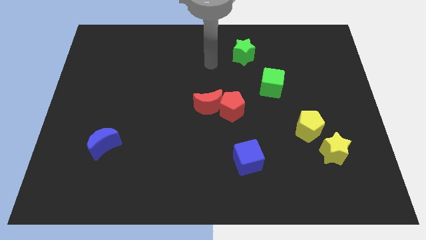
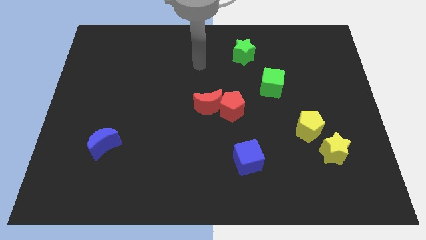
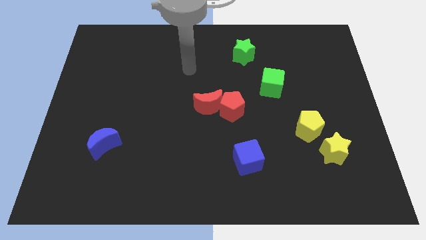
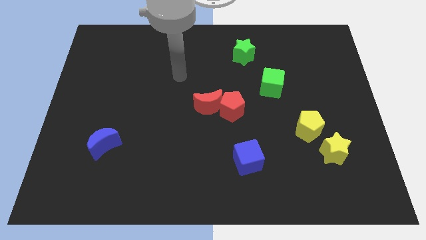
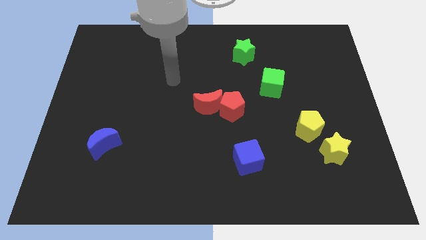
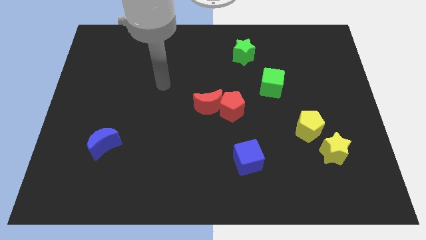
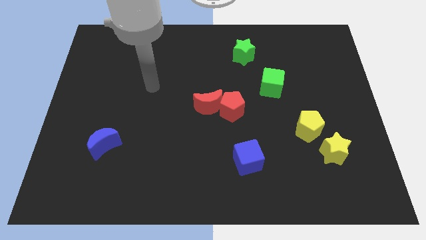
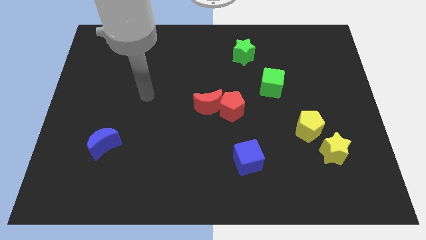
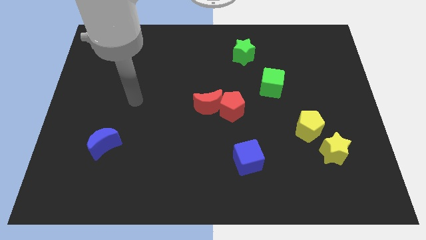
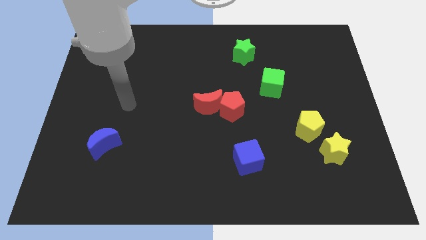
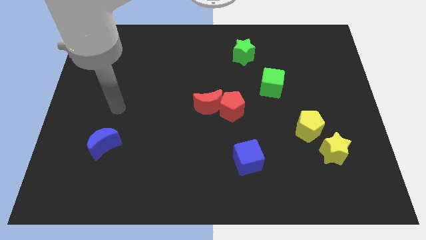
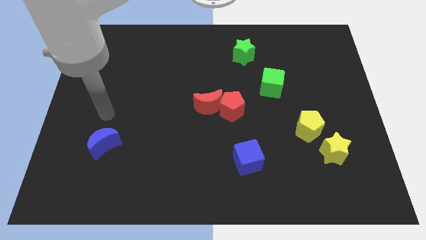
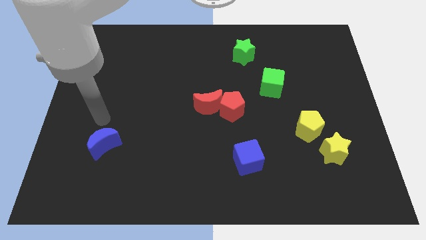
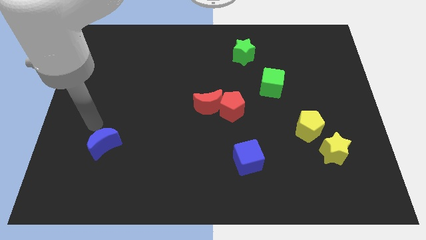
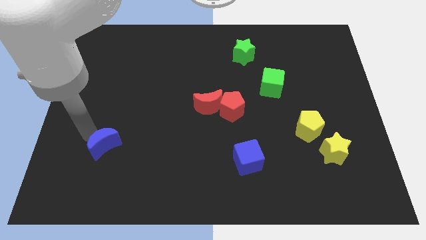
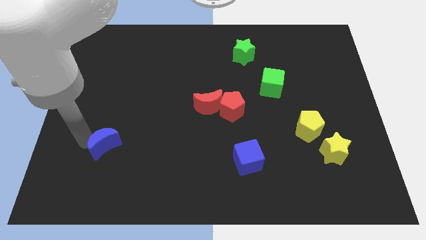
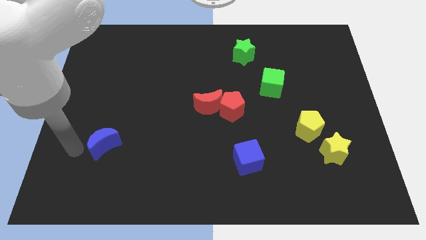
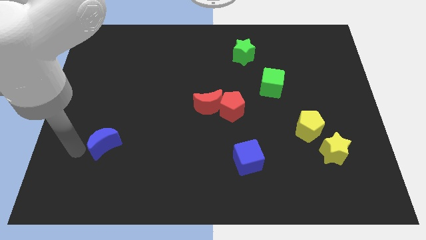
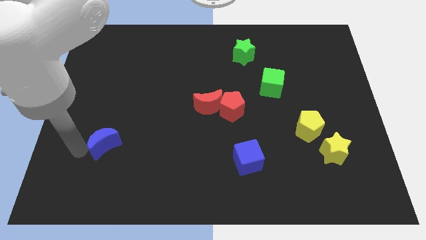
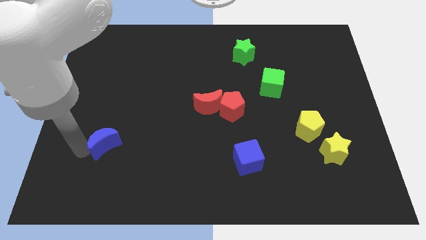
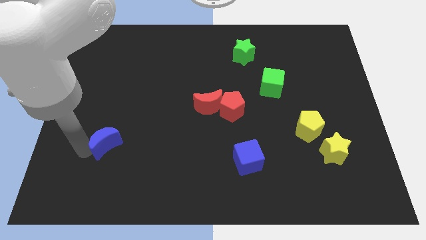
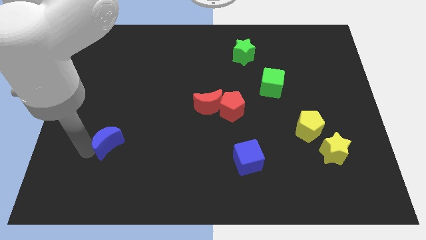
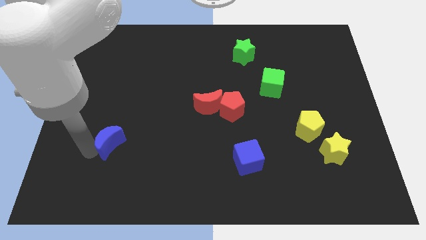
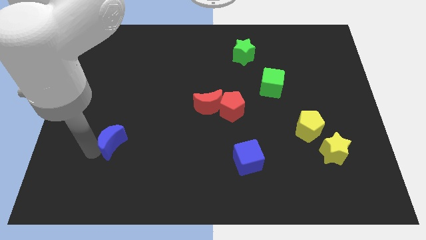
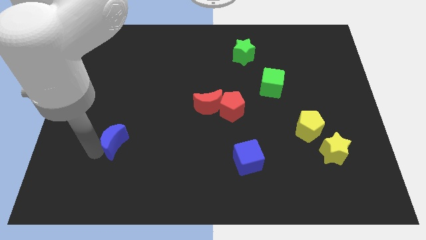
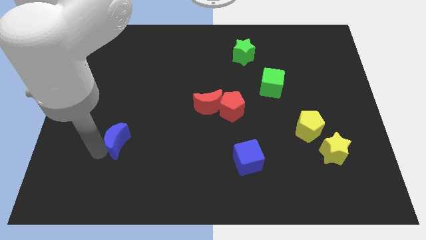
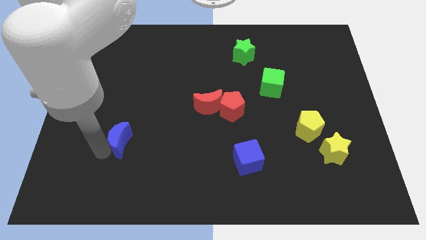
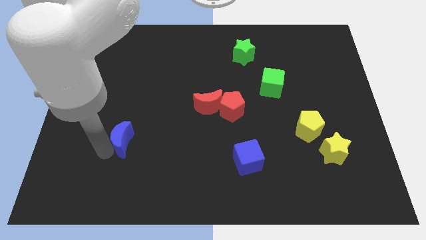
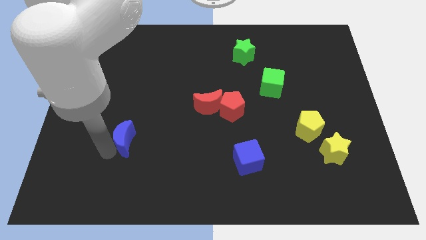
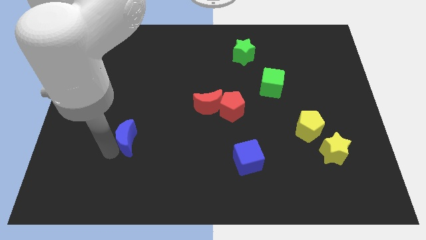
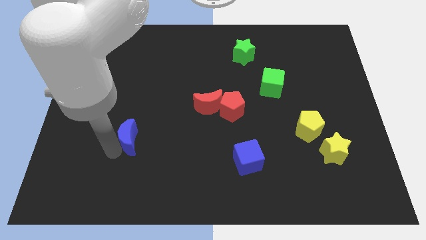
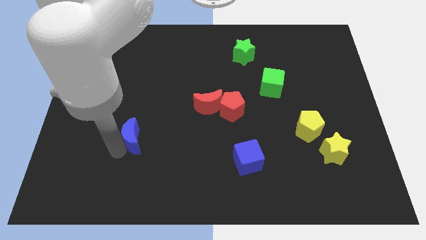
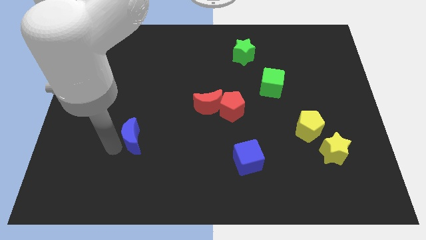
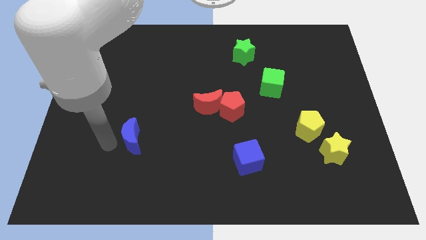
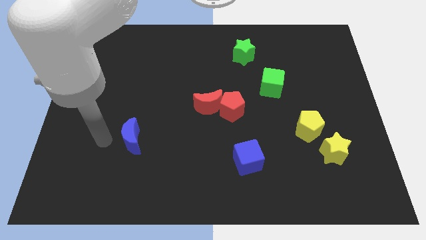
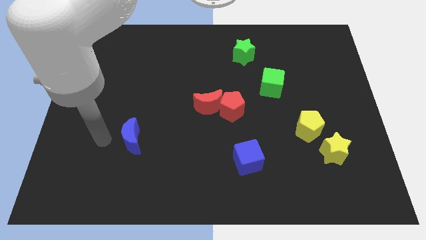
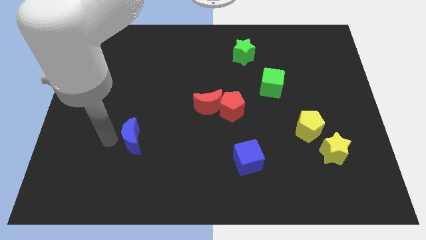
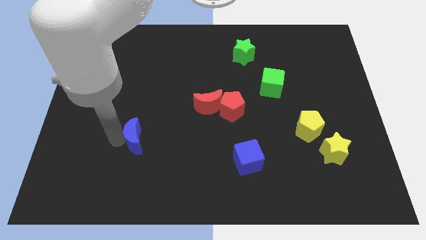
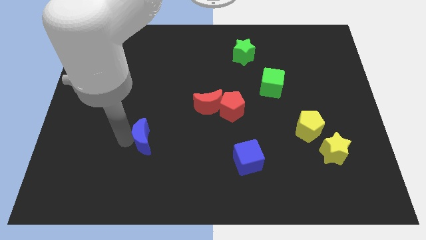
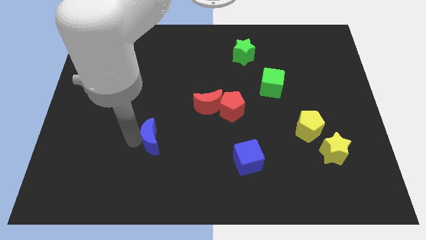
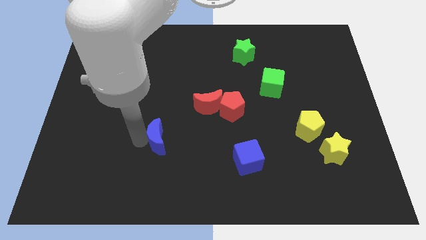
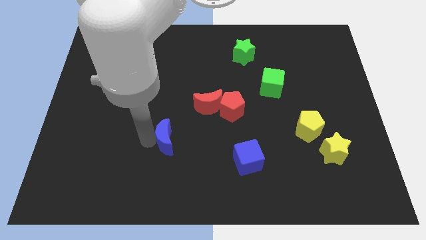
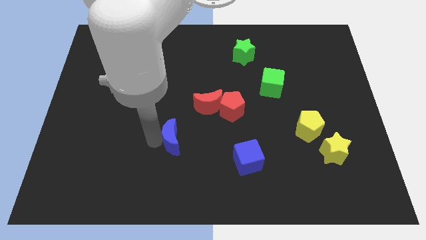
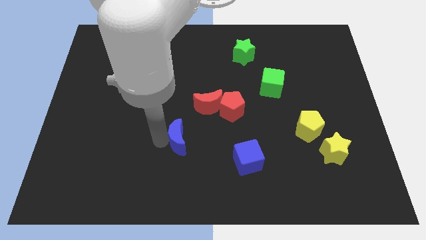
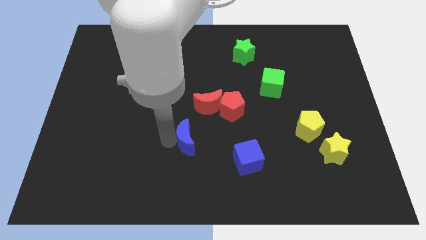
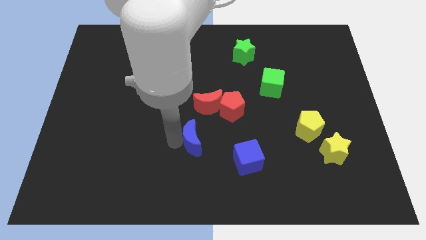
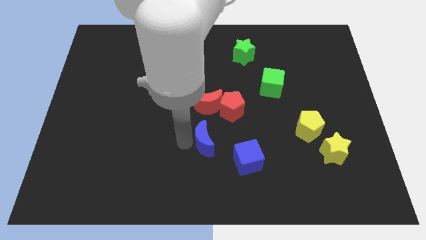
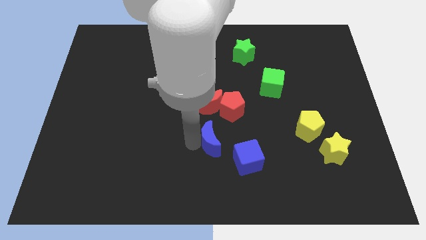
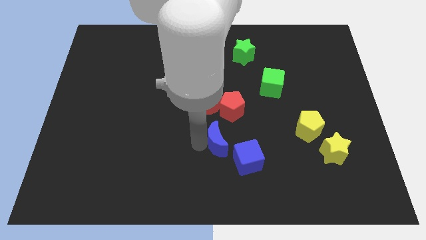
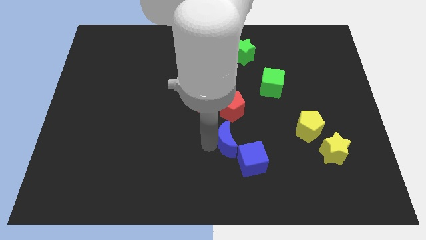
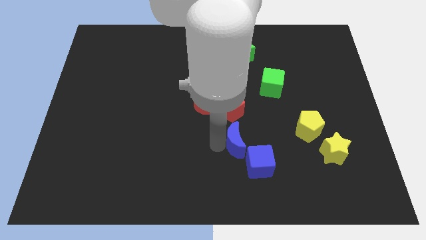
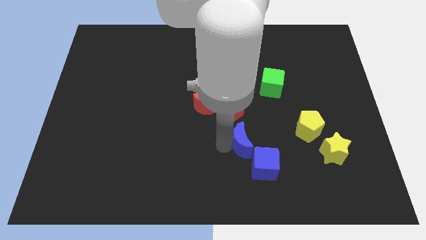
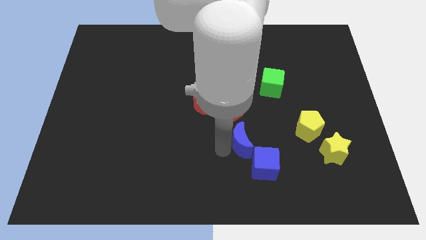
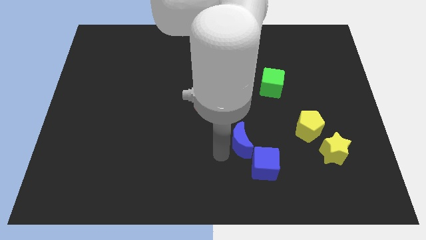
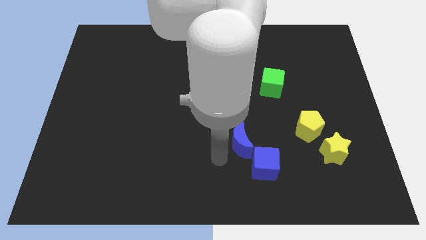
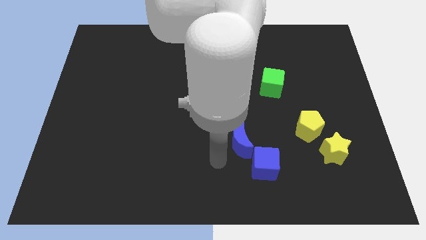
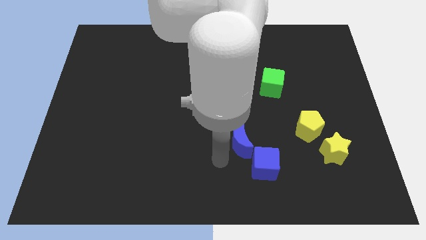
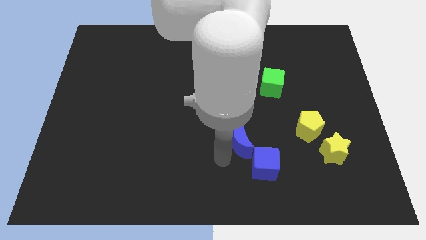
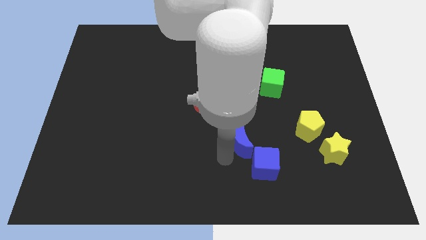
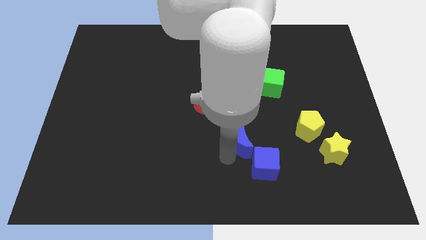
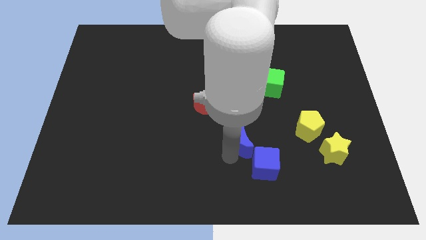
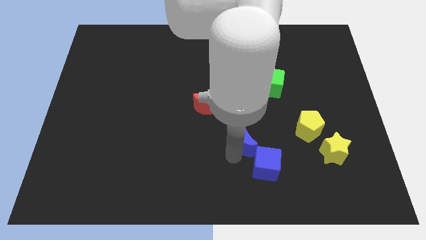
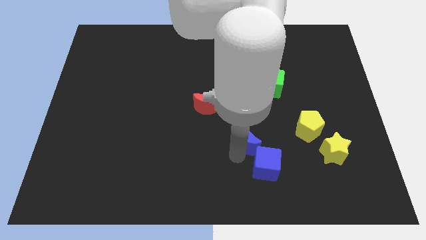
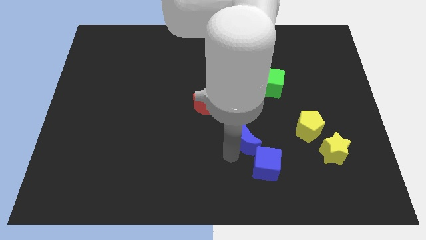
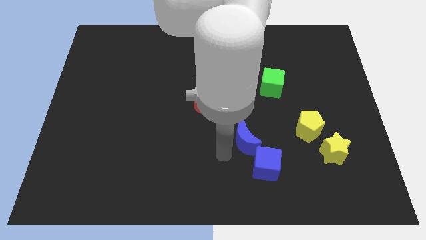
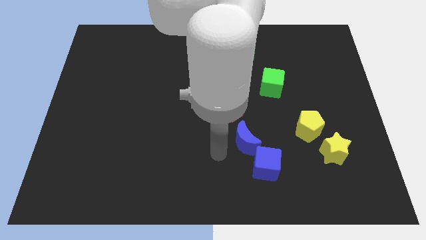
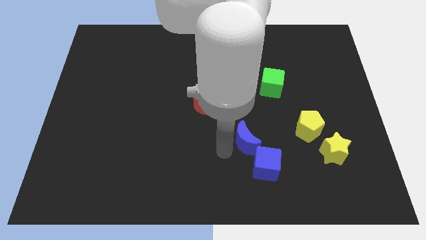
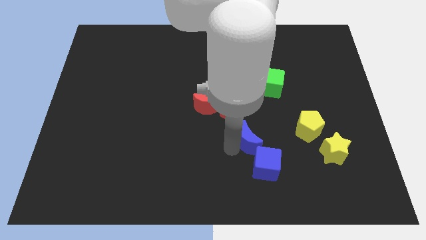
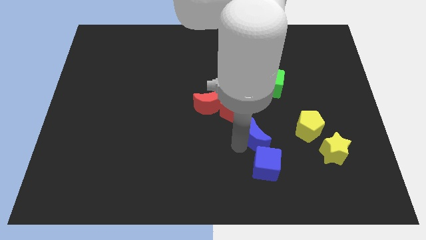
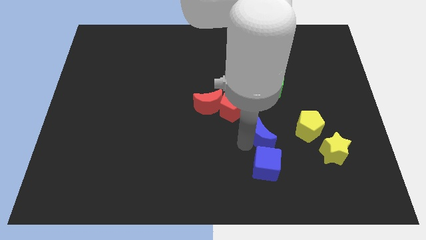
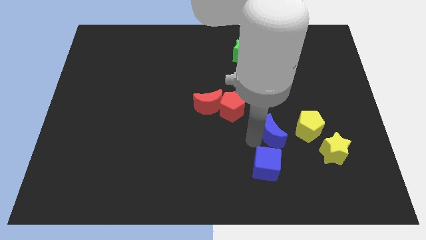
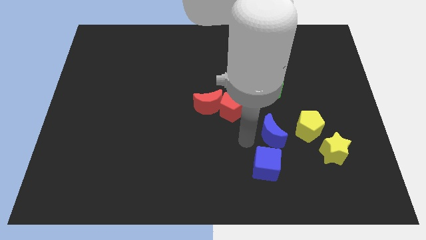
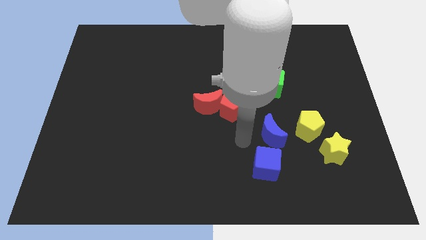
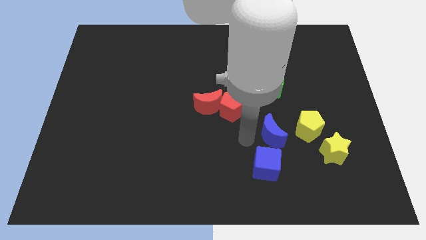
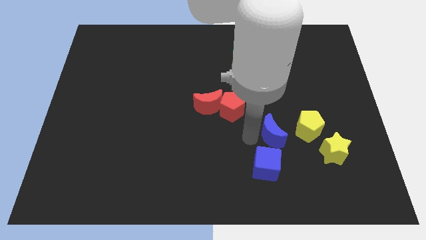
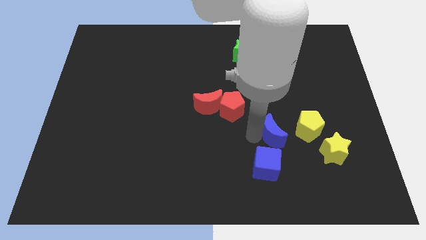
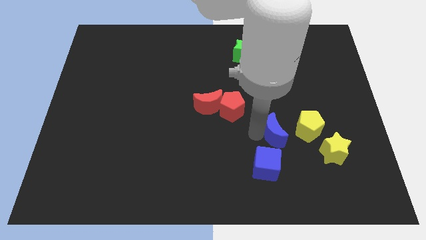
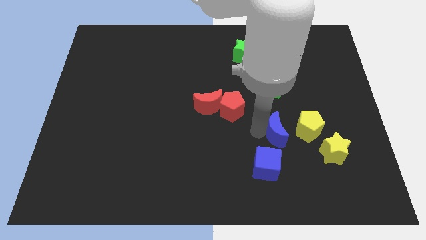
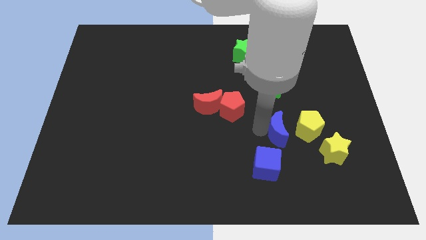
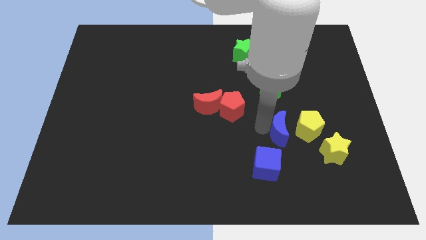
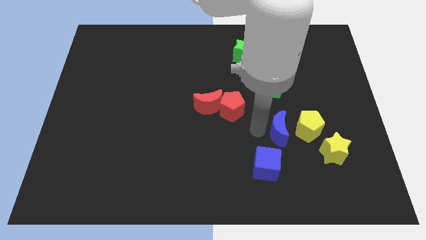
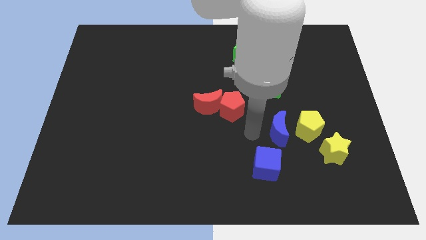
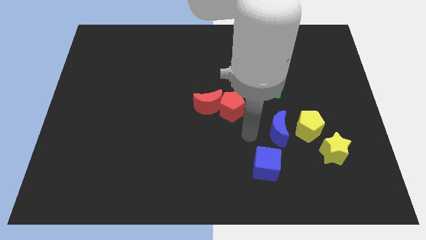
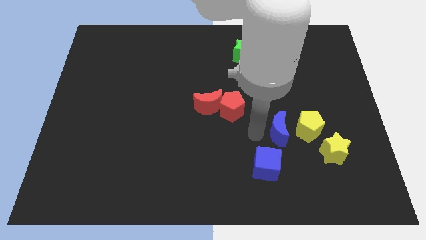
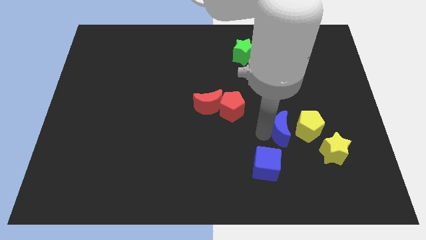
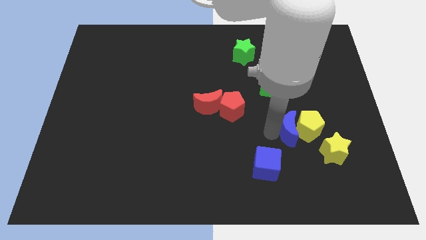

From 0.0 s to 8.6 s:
move the blue moon close to the yellow pentagon
